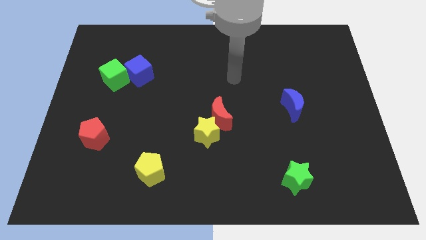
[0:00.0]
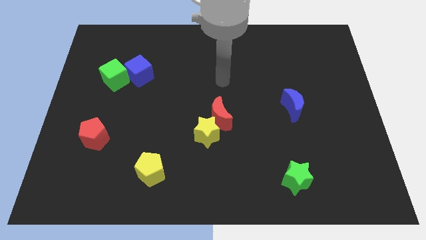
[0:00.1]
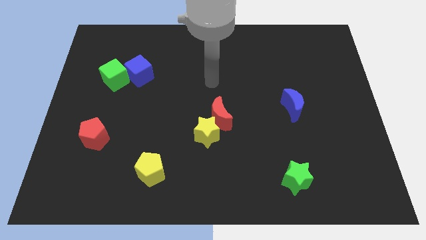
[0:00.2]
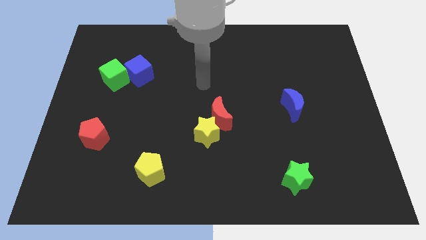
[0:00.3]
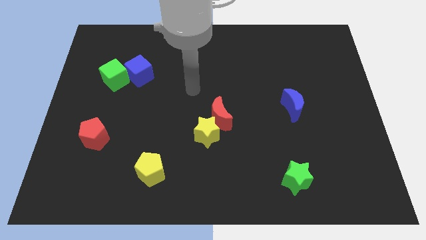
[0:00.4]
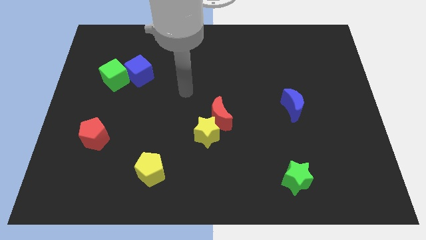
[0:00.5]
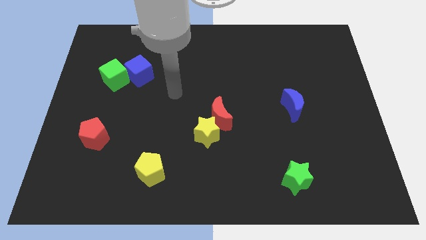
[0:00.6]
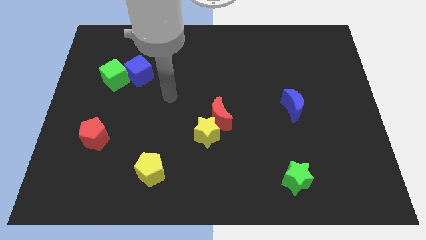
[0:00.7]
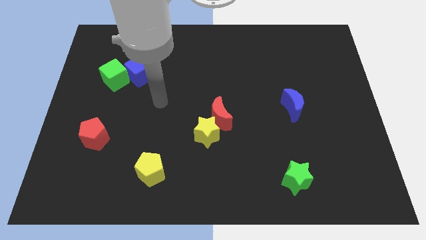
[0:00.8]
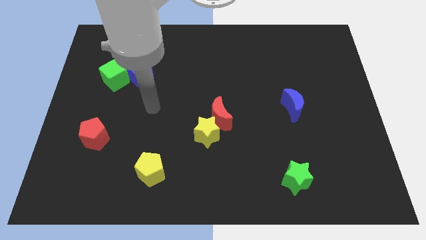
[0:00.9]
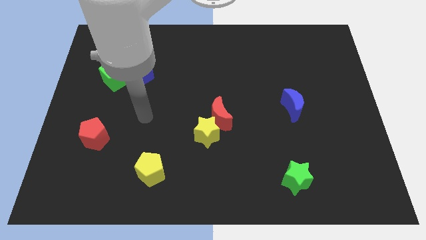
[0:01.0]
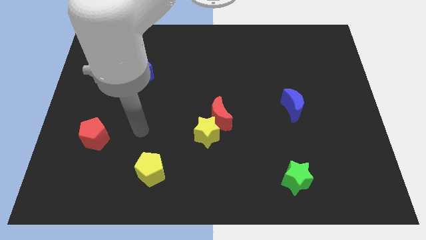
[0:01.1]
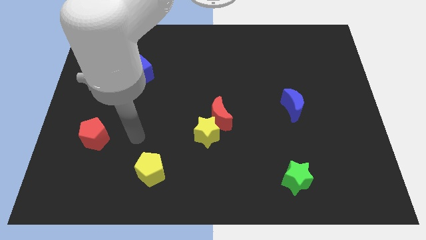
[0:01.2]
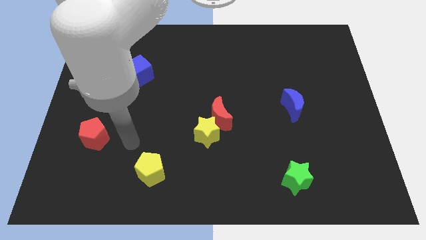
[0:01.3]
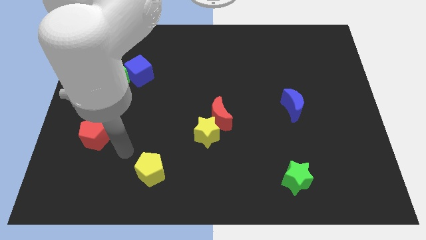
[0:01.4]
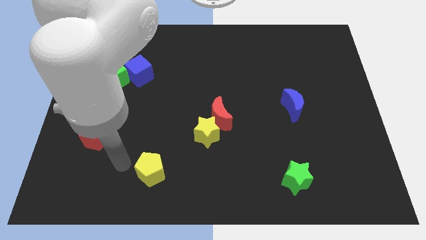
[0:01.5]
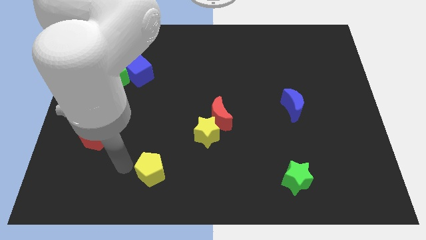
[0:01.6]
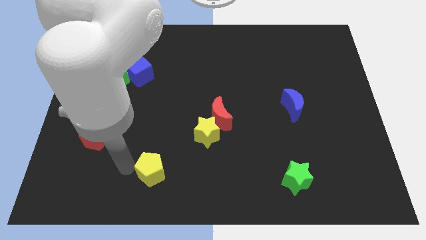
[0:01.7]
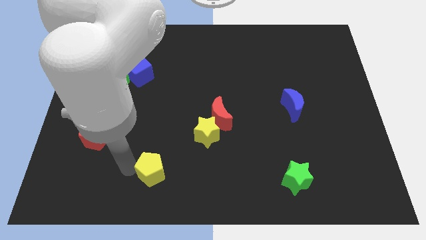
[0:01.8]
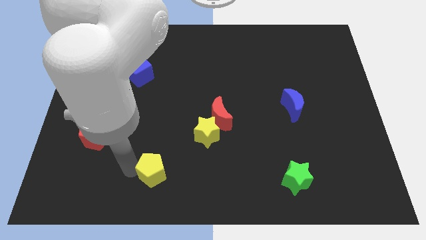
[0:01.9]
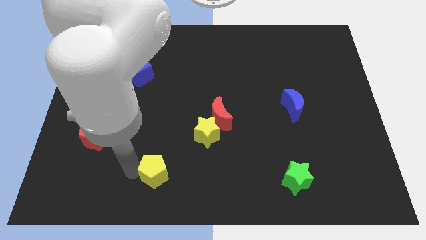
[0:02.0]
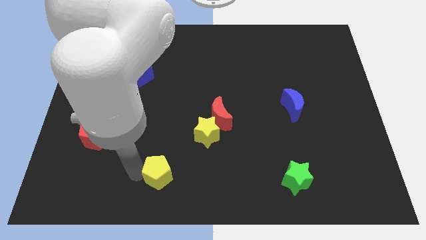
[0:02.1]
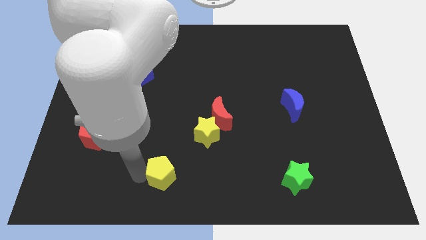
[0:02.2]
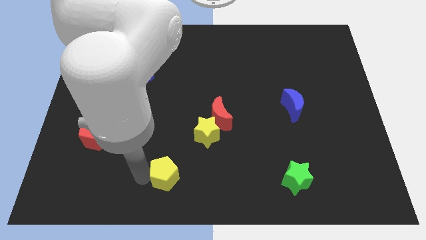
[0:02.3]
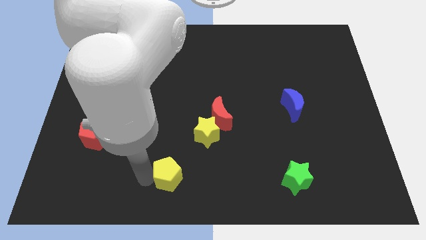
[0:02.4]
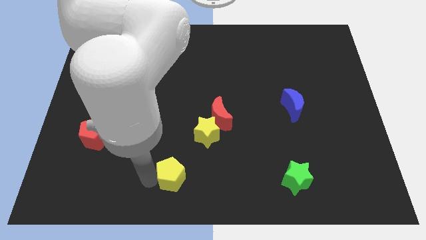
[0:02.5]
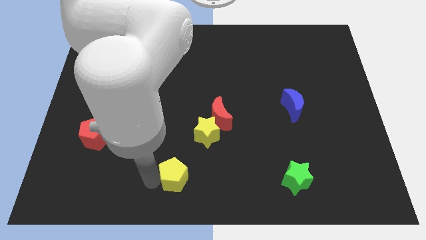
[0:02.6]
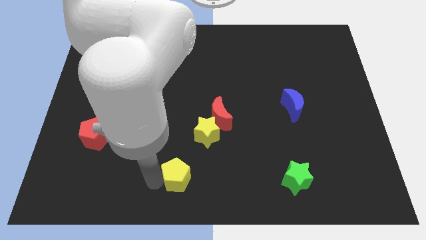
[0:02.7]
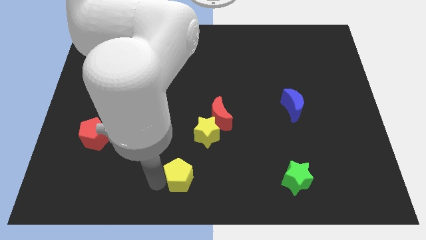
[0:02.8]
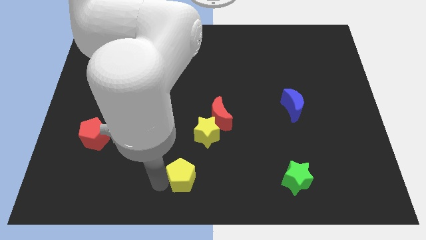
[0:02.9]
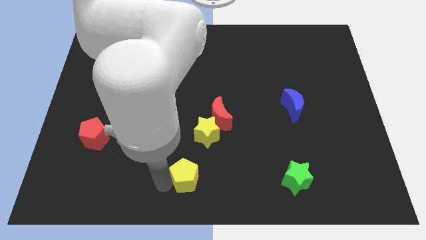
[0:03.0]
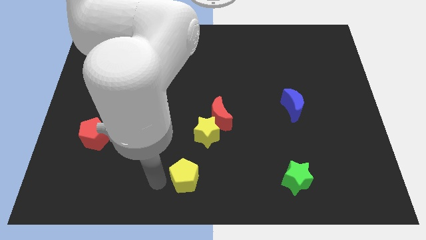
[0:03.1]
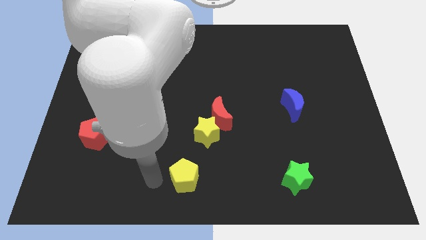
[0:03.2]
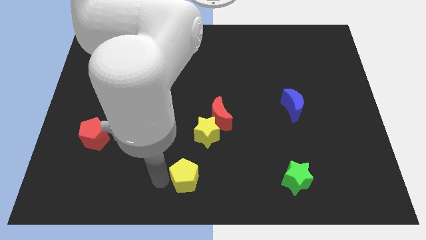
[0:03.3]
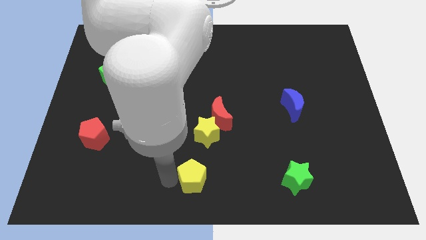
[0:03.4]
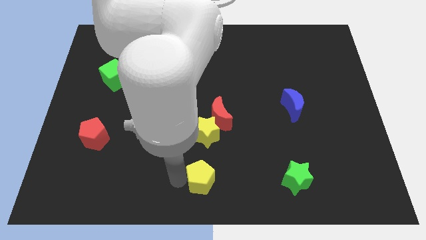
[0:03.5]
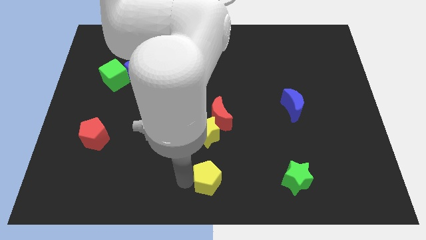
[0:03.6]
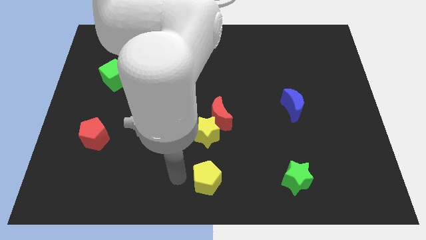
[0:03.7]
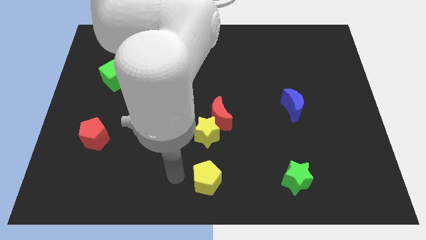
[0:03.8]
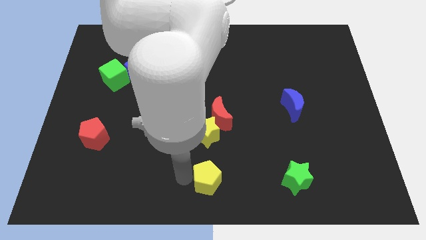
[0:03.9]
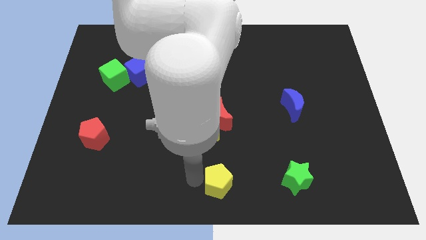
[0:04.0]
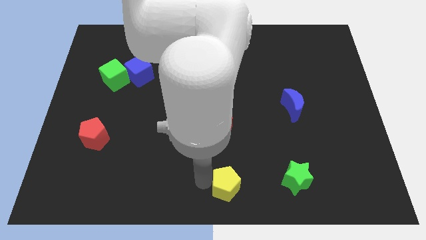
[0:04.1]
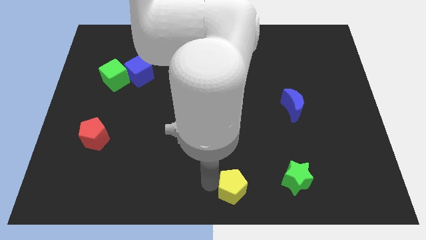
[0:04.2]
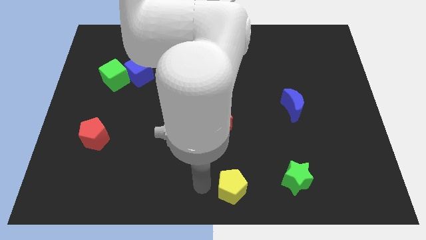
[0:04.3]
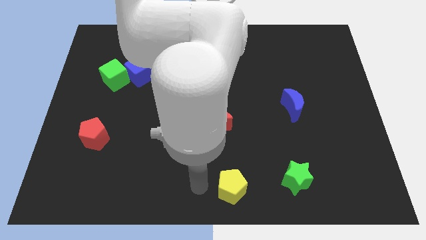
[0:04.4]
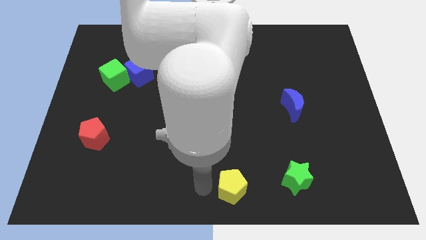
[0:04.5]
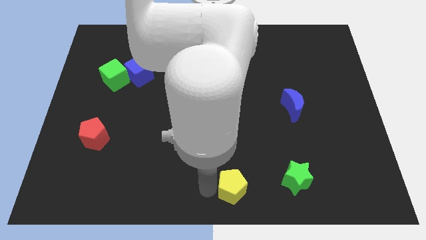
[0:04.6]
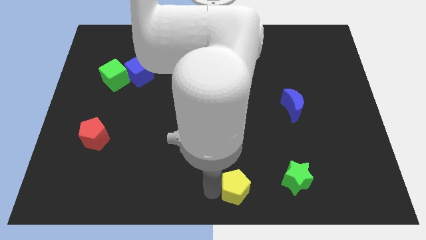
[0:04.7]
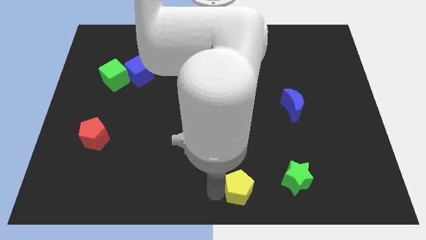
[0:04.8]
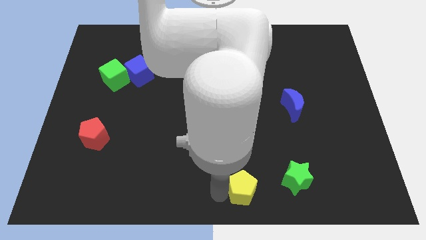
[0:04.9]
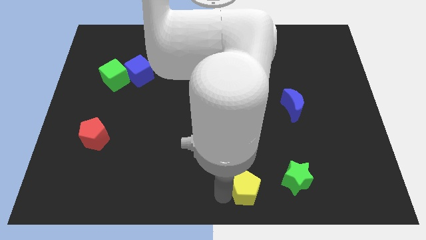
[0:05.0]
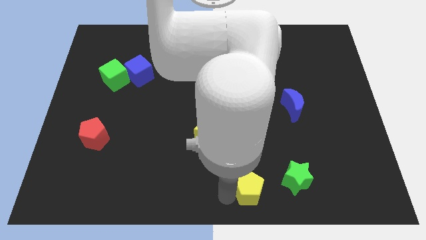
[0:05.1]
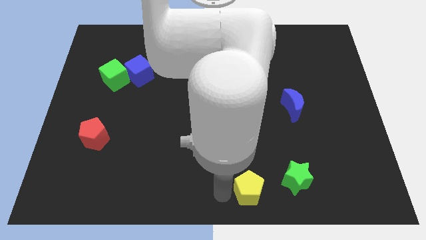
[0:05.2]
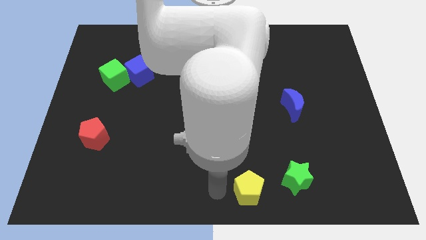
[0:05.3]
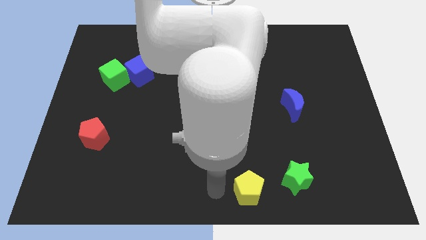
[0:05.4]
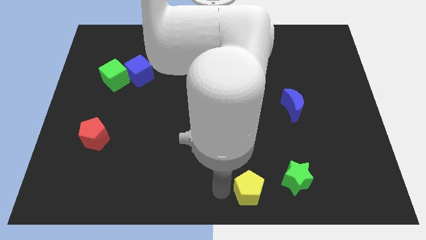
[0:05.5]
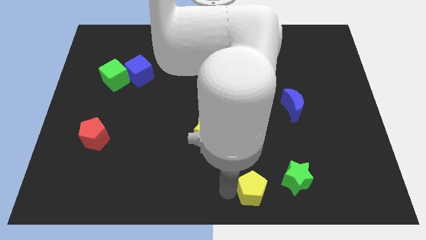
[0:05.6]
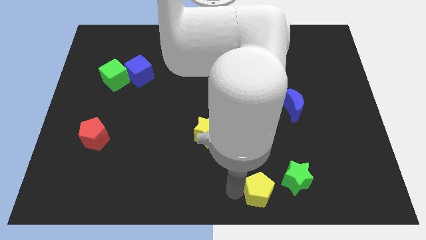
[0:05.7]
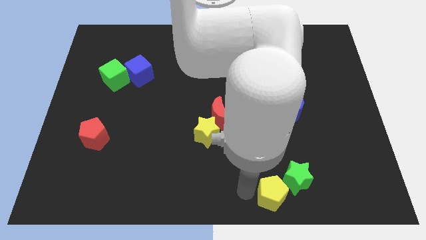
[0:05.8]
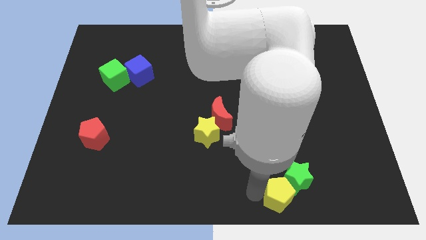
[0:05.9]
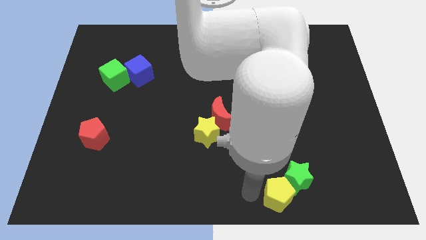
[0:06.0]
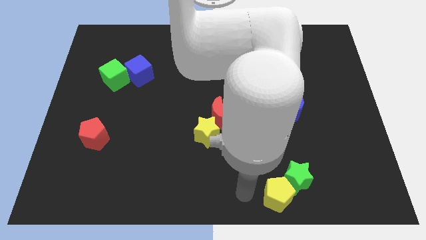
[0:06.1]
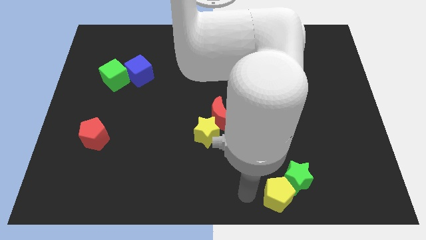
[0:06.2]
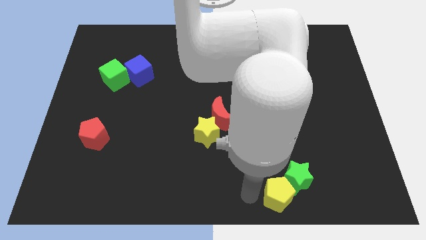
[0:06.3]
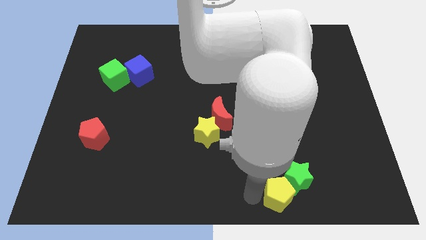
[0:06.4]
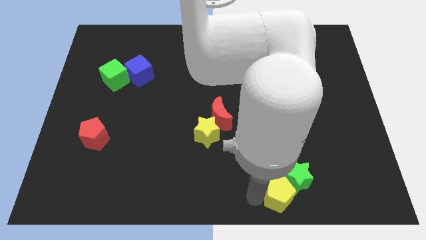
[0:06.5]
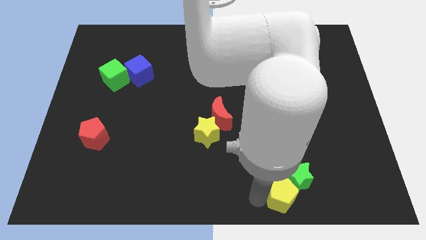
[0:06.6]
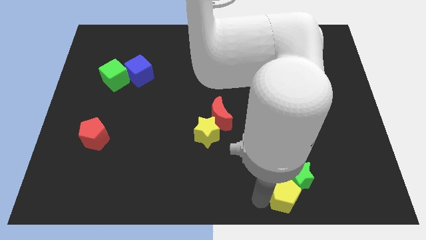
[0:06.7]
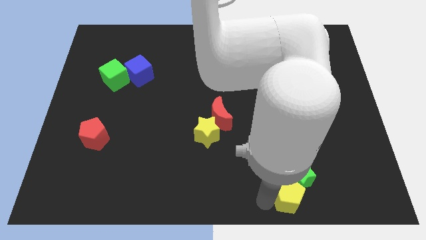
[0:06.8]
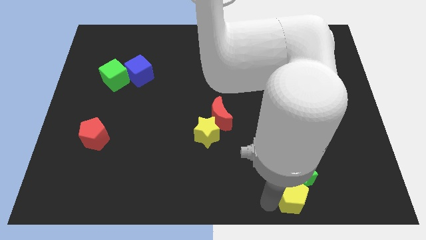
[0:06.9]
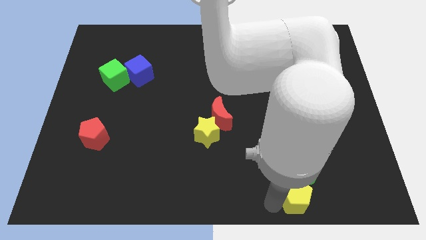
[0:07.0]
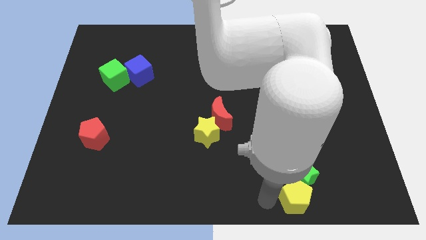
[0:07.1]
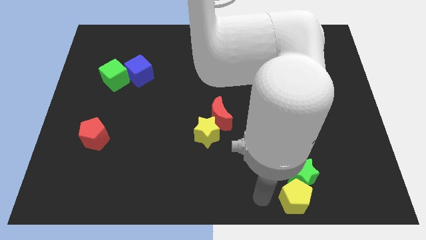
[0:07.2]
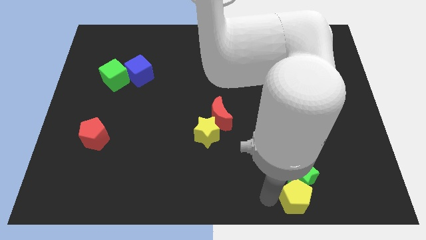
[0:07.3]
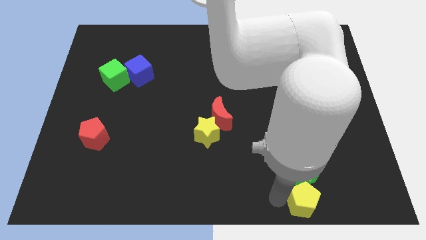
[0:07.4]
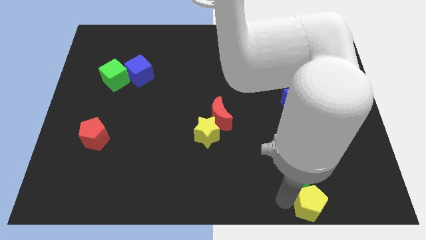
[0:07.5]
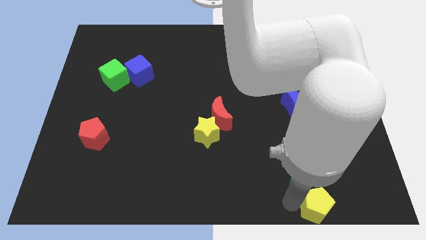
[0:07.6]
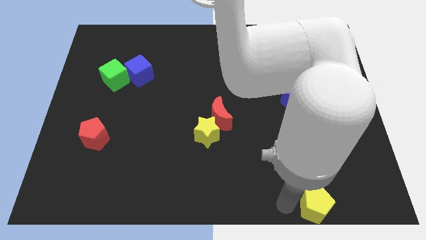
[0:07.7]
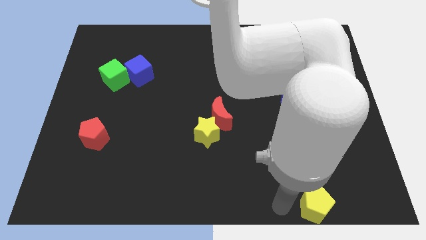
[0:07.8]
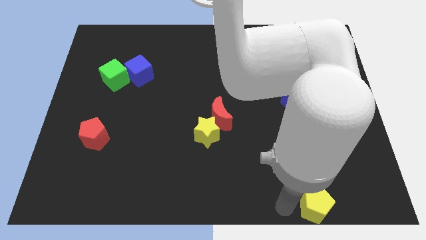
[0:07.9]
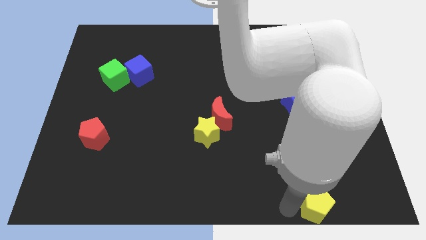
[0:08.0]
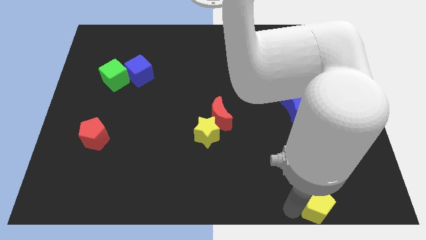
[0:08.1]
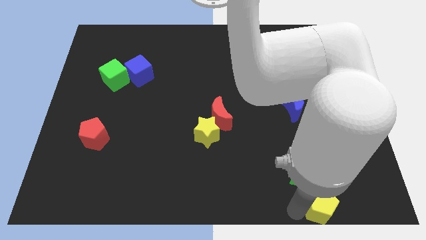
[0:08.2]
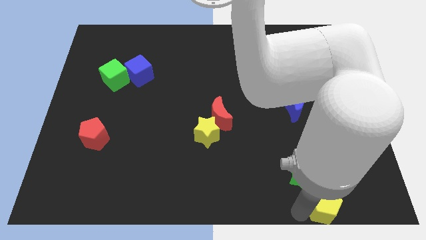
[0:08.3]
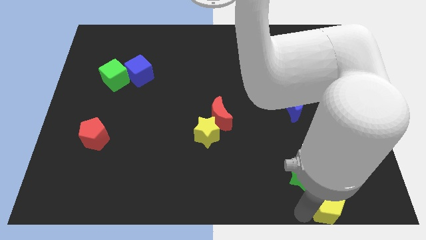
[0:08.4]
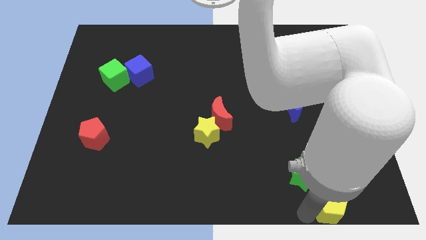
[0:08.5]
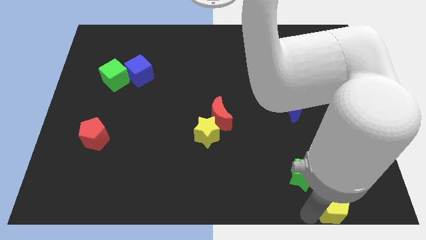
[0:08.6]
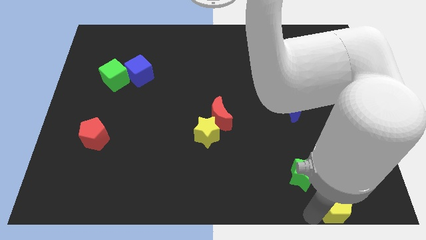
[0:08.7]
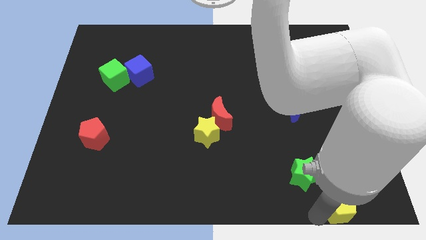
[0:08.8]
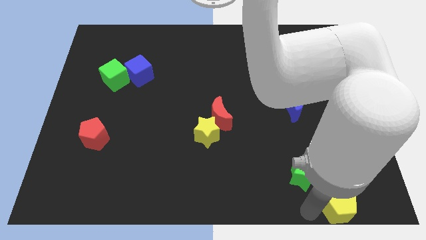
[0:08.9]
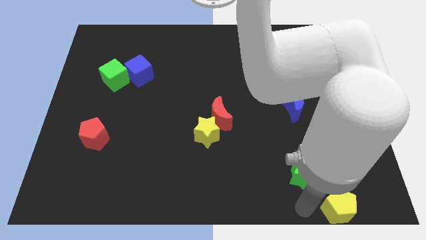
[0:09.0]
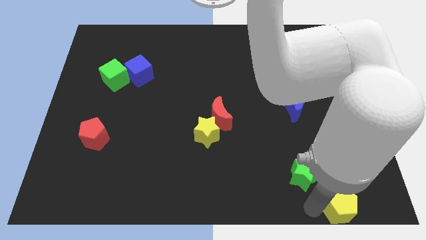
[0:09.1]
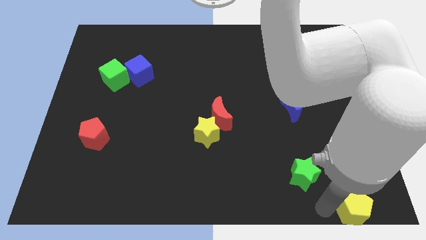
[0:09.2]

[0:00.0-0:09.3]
push the yellow pentagon to the bottom right corner
